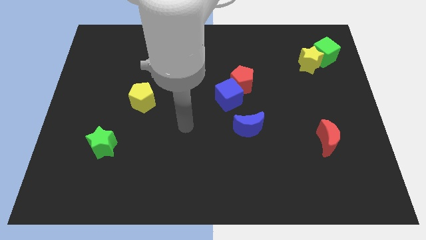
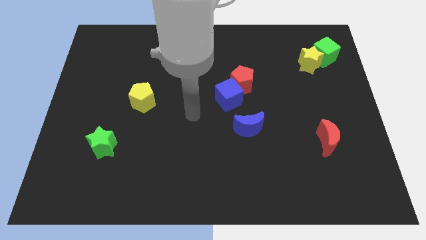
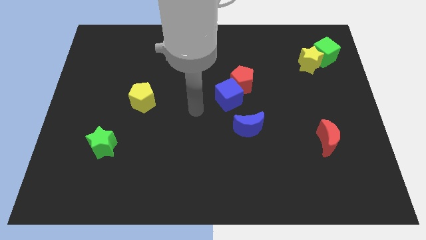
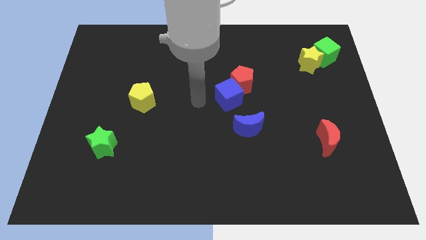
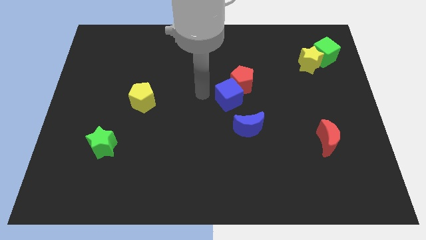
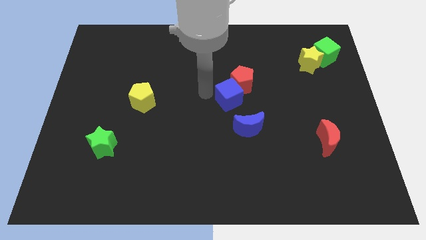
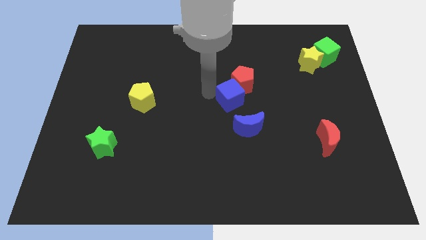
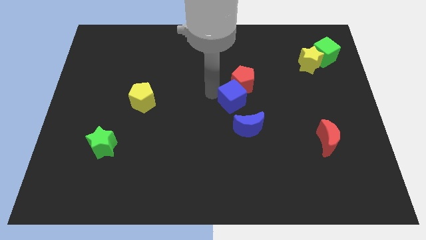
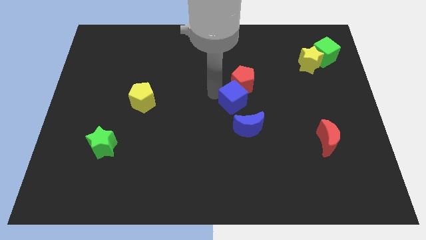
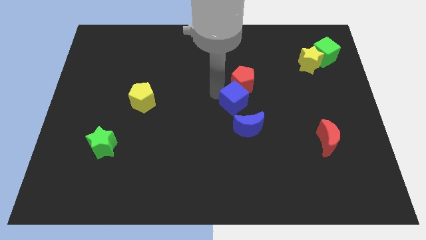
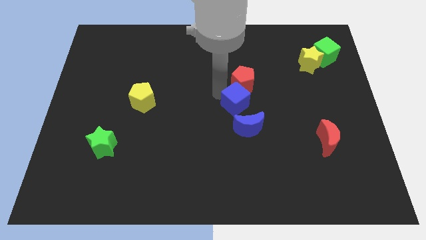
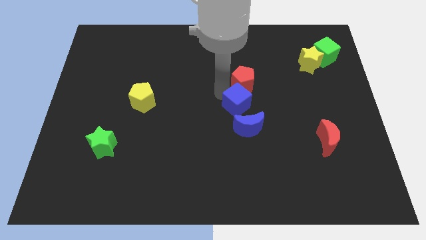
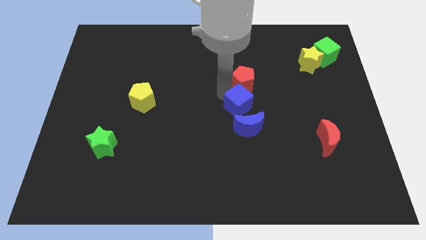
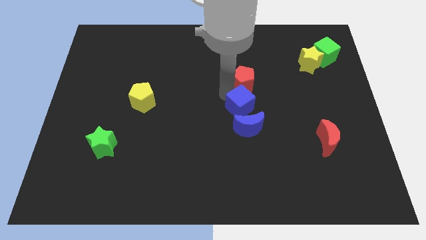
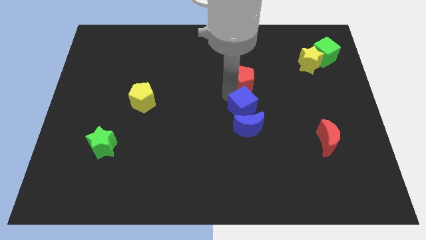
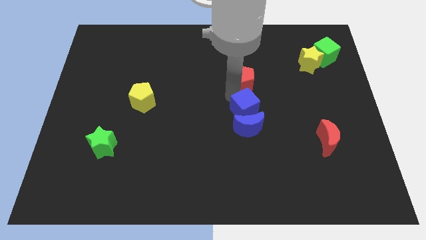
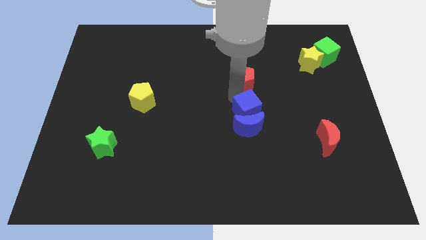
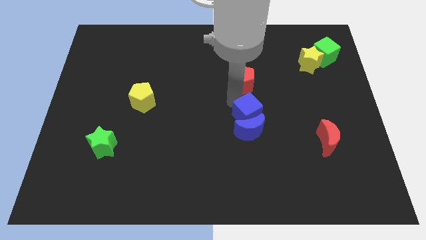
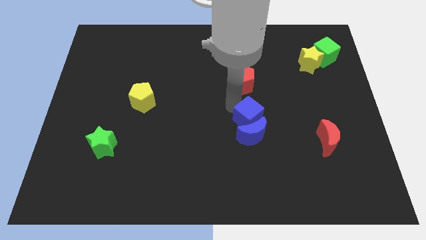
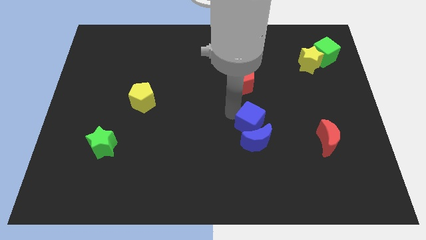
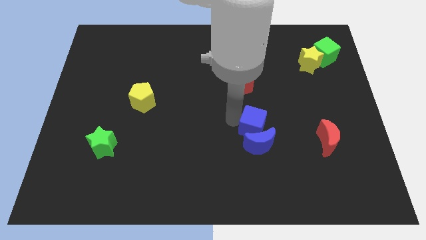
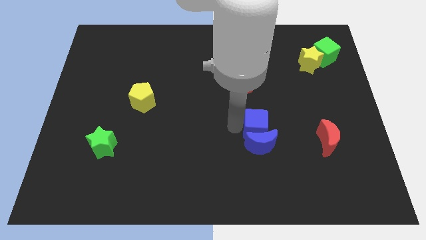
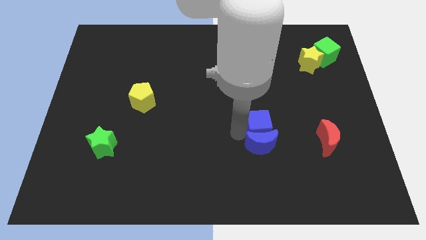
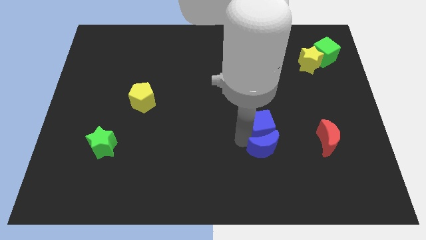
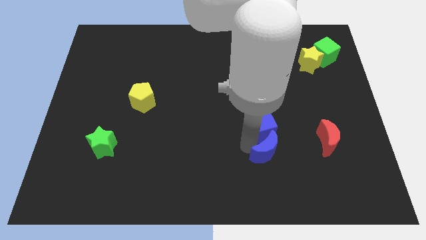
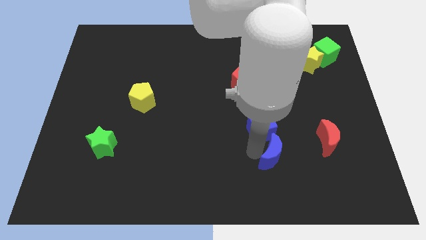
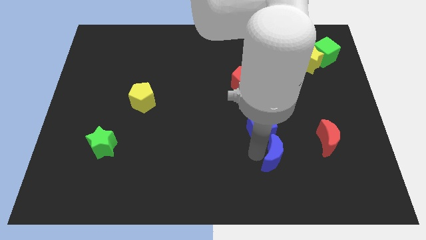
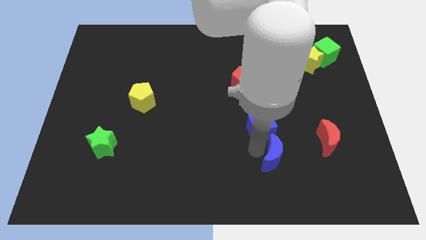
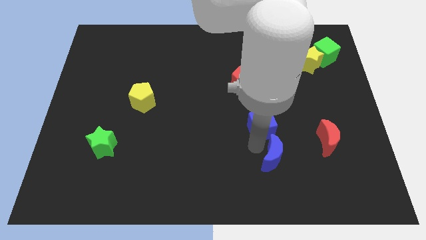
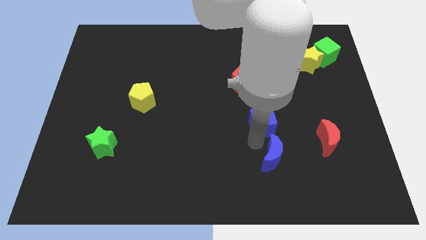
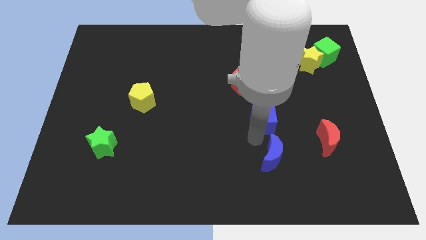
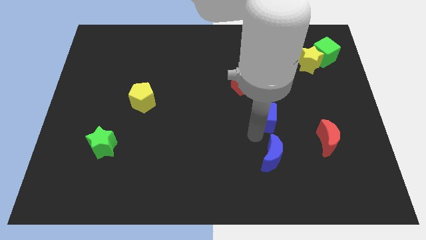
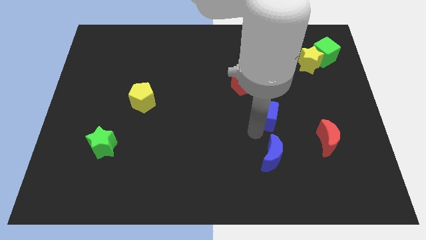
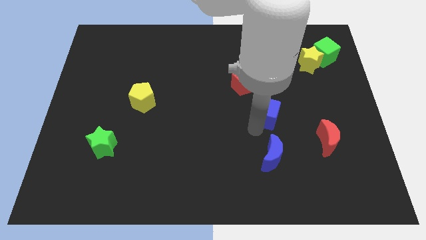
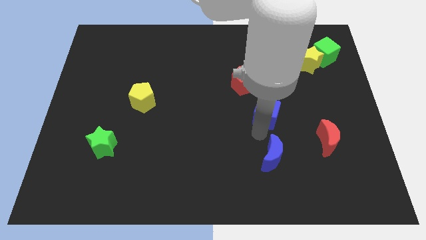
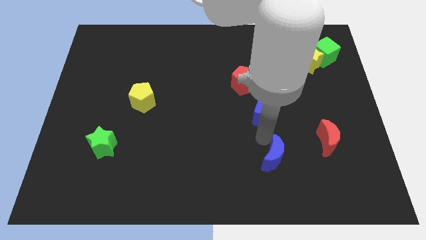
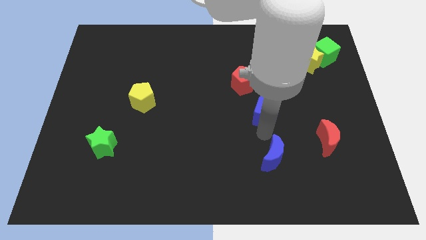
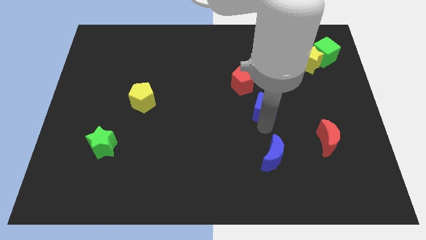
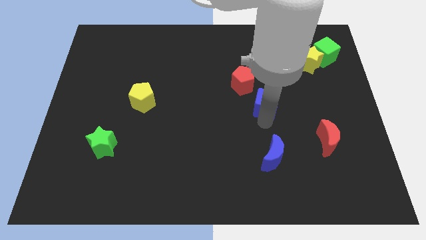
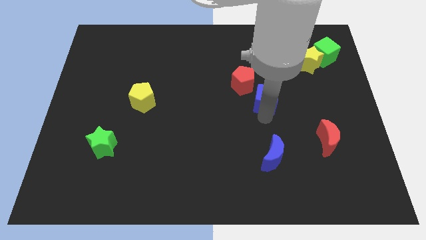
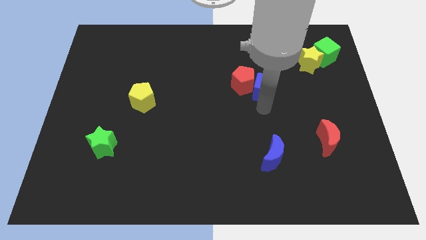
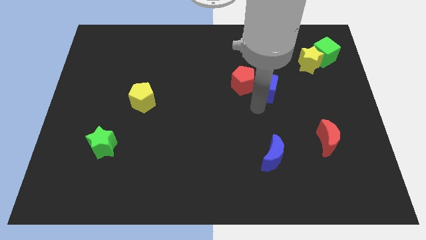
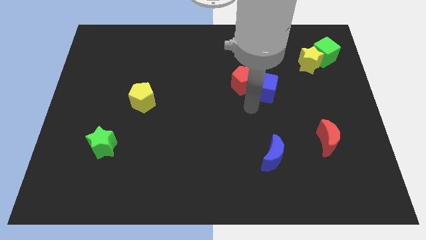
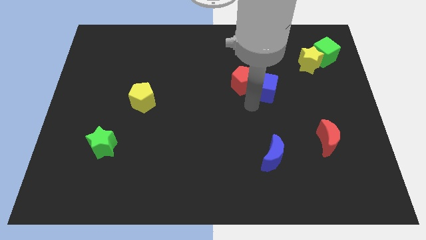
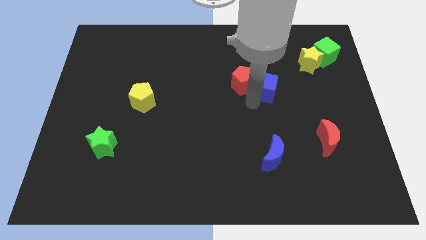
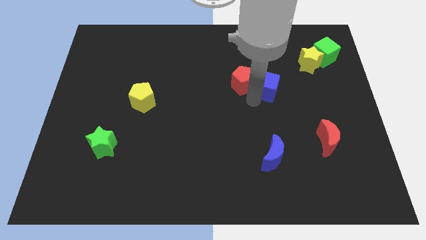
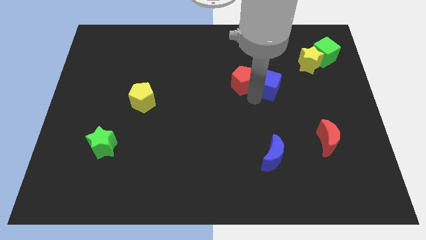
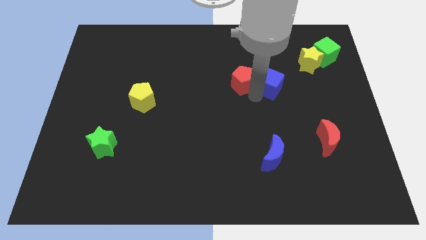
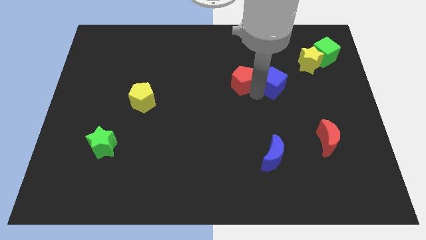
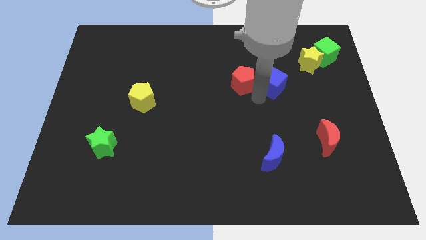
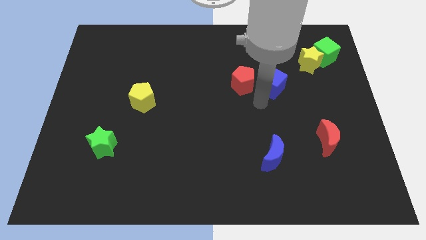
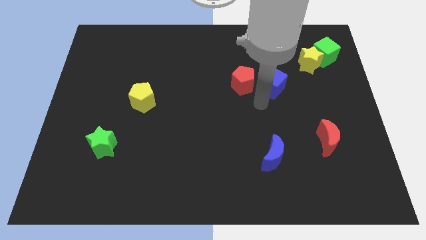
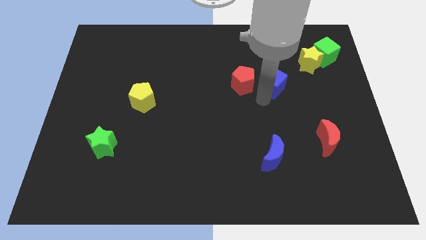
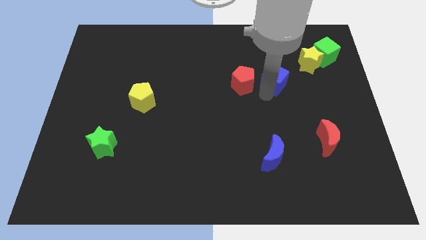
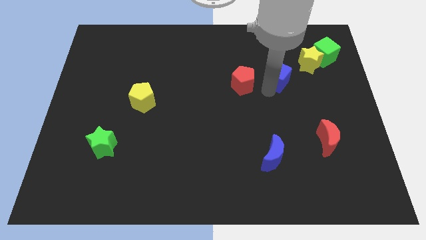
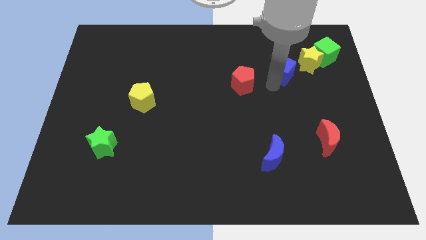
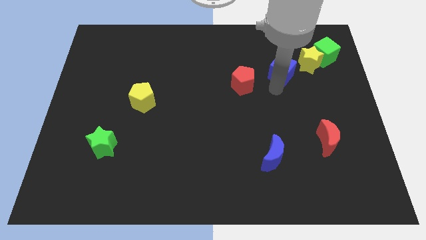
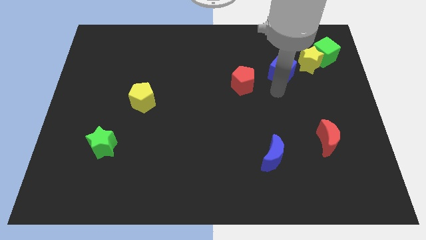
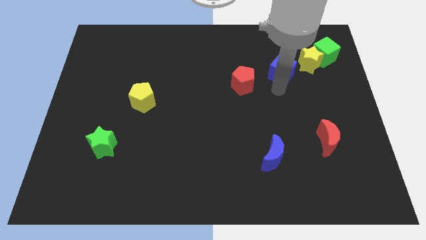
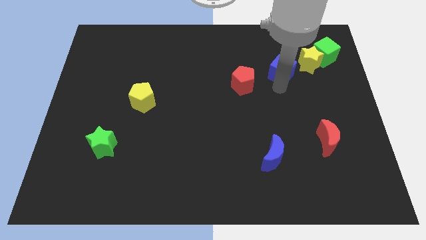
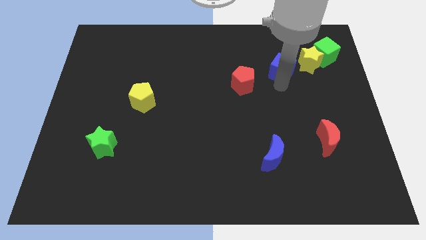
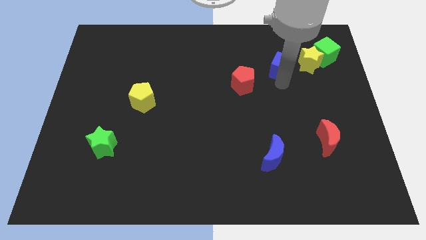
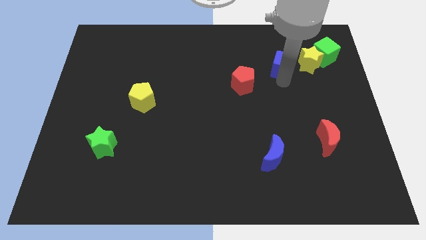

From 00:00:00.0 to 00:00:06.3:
slide the blue cube just left of the green cube

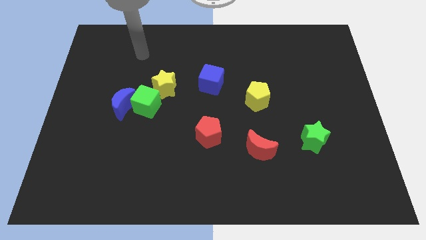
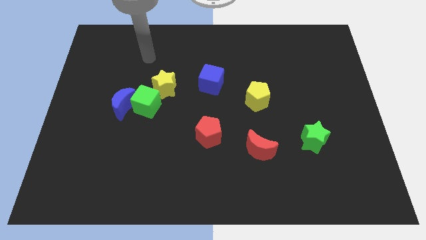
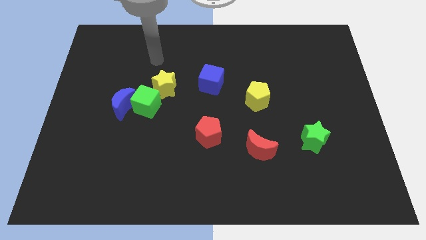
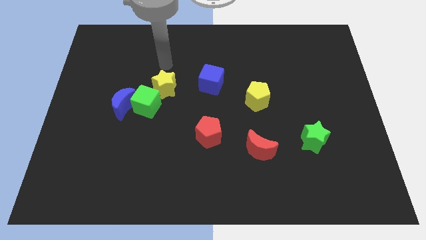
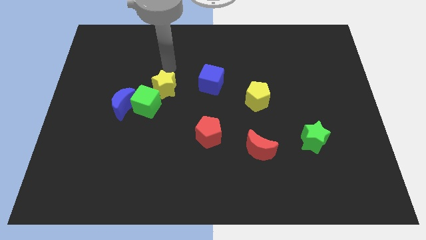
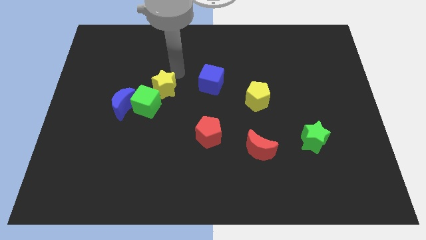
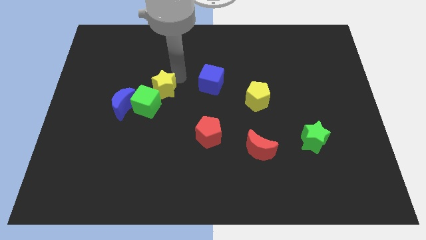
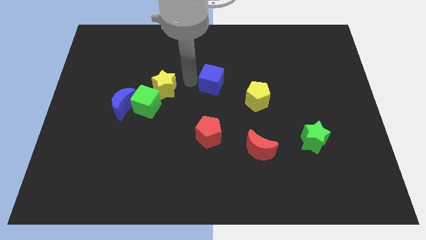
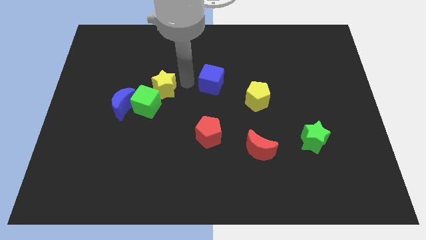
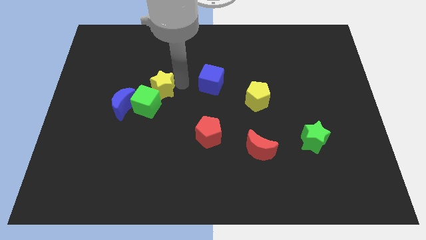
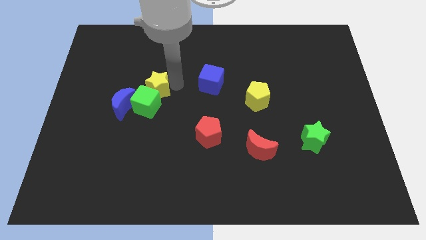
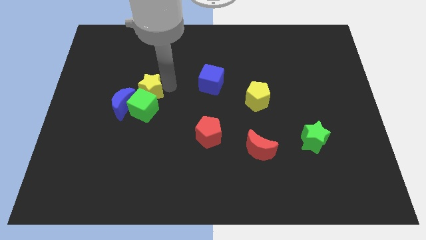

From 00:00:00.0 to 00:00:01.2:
push the yellow star diagonally up and to the left of the green cube

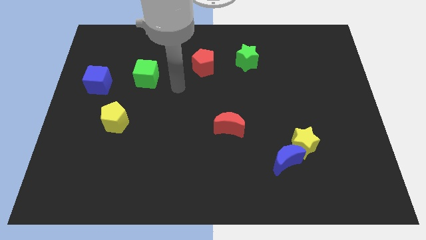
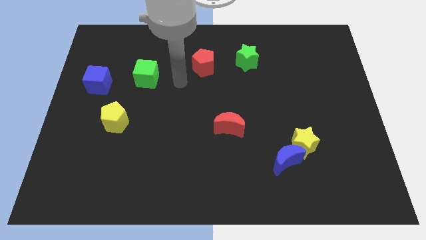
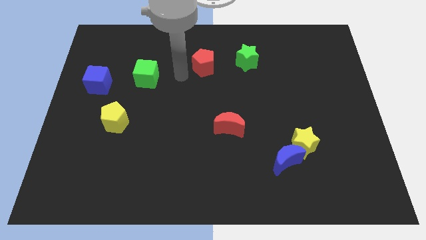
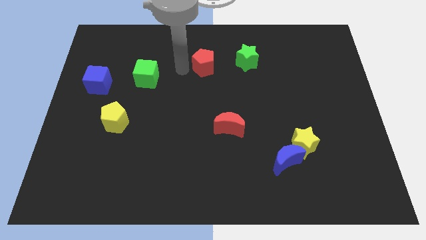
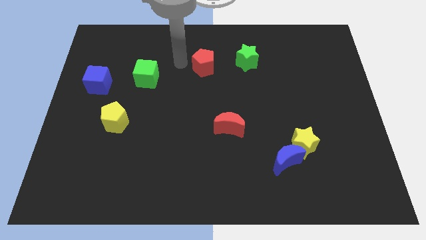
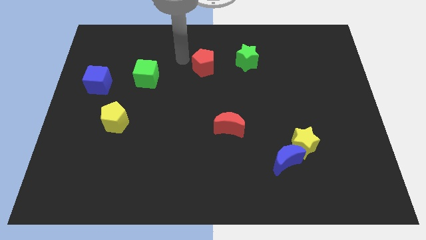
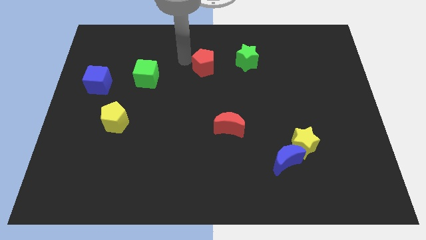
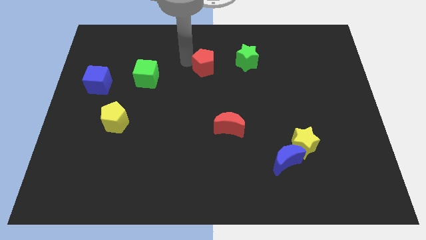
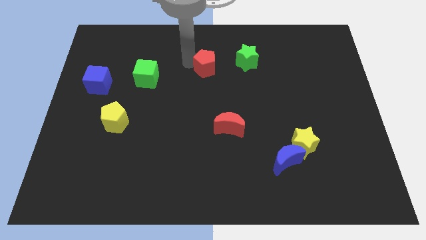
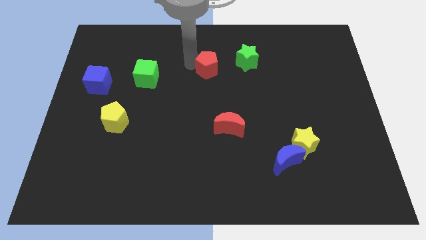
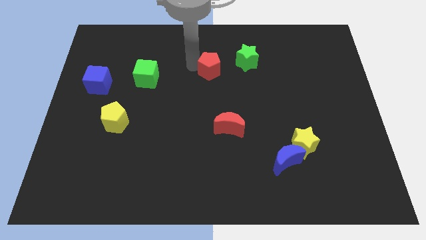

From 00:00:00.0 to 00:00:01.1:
put the red pentagon to the bottom left of the green star
